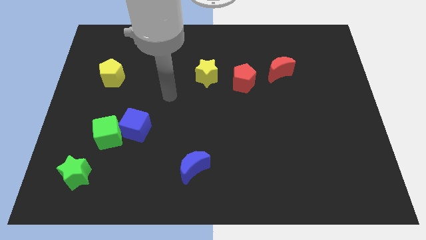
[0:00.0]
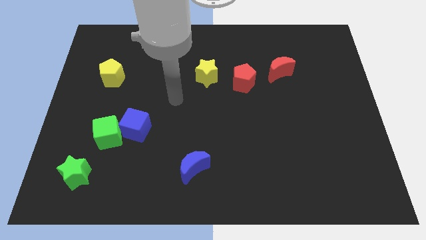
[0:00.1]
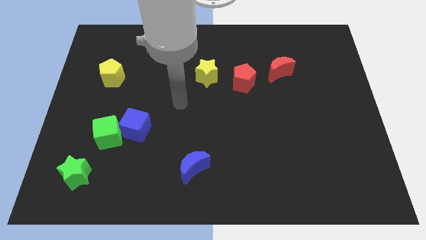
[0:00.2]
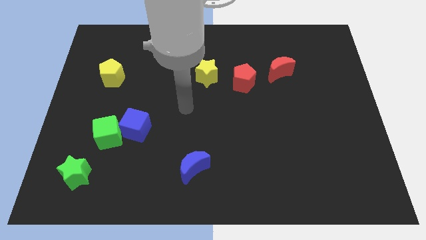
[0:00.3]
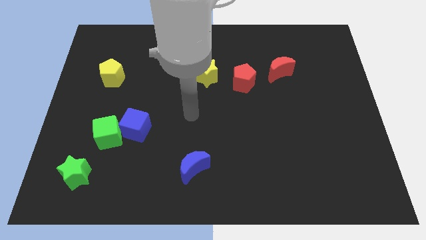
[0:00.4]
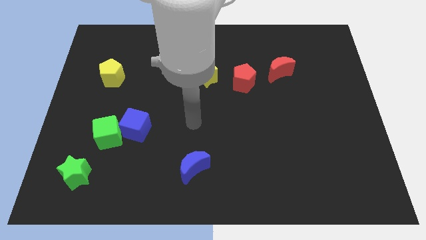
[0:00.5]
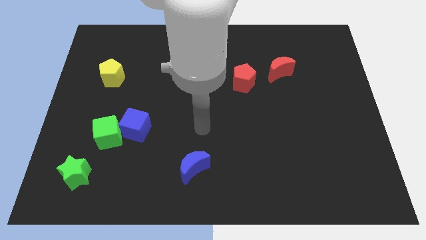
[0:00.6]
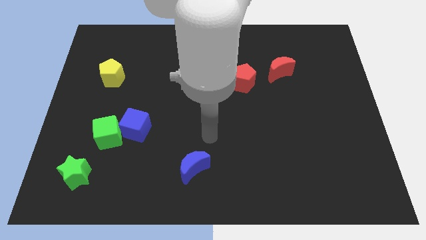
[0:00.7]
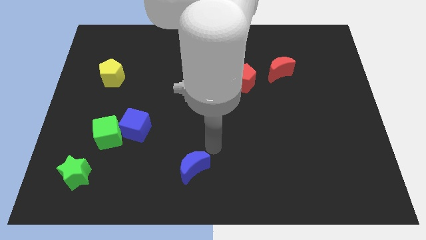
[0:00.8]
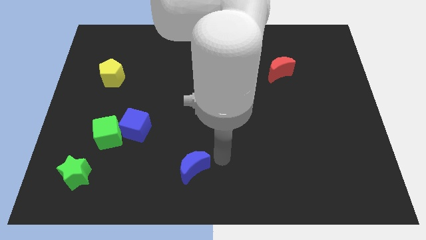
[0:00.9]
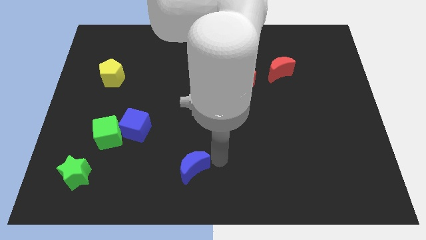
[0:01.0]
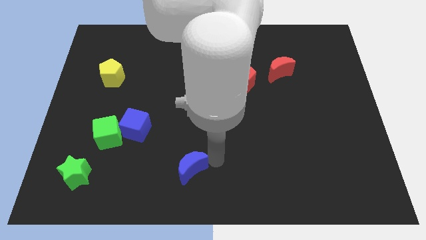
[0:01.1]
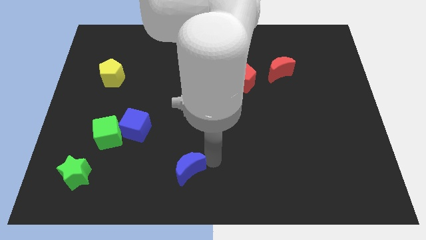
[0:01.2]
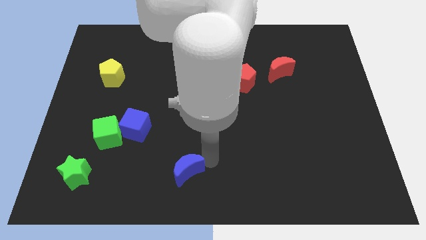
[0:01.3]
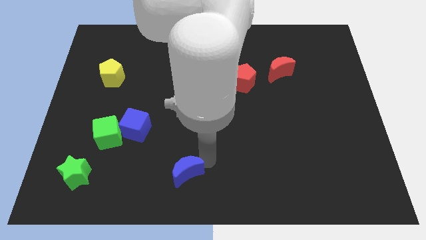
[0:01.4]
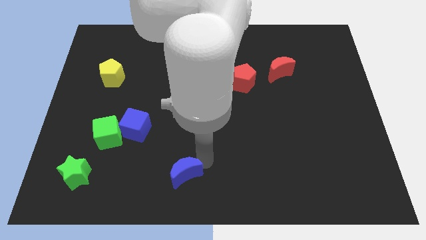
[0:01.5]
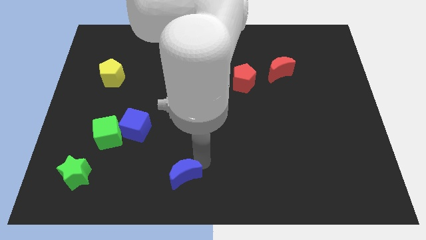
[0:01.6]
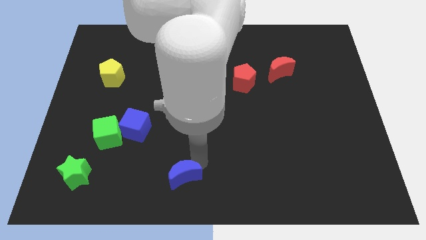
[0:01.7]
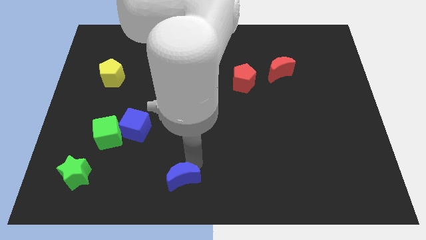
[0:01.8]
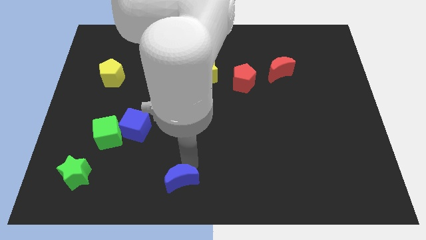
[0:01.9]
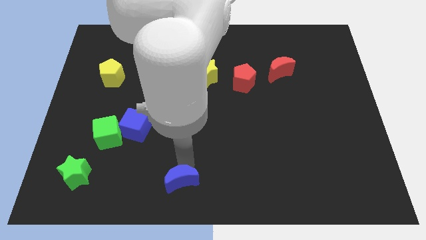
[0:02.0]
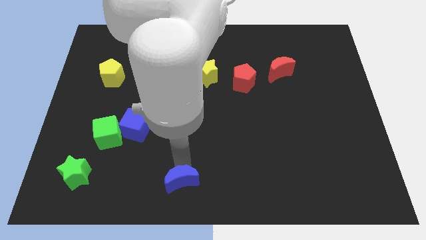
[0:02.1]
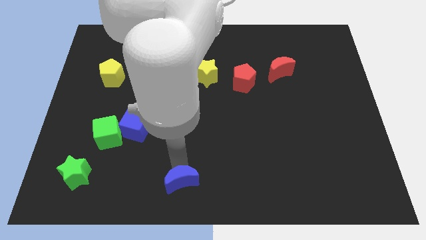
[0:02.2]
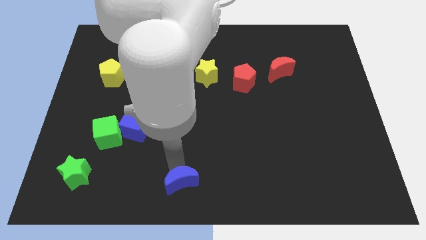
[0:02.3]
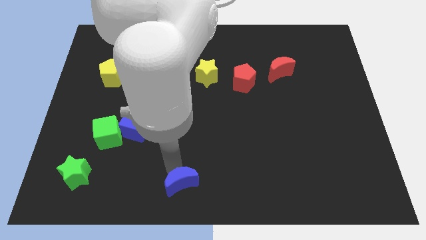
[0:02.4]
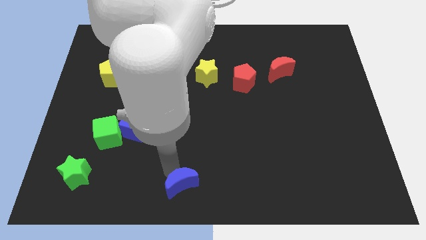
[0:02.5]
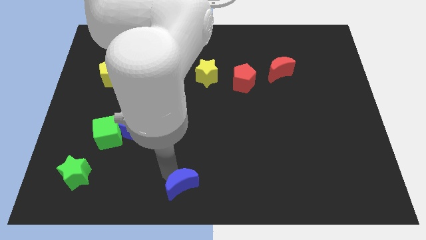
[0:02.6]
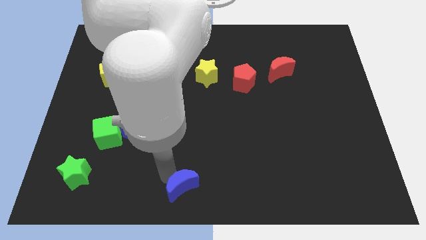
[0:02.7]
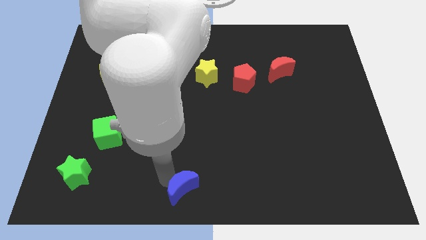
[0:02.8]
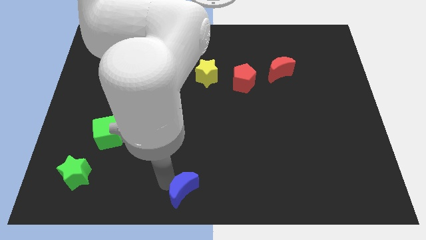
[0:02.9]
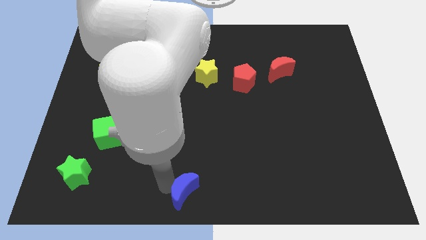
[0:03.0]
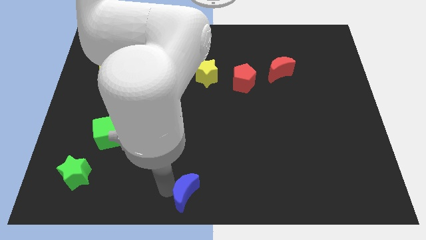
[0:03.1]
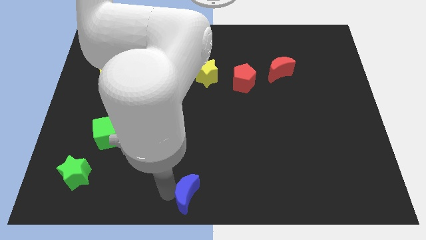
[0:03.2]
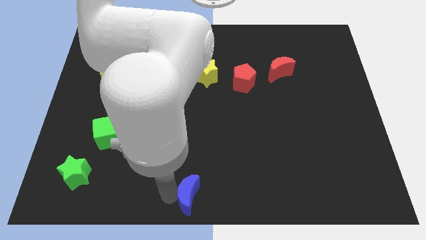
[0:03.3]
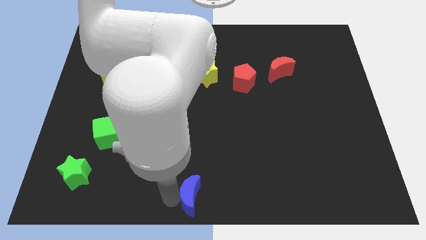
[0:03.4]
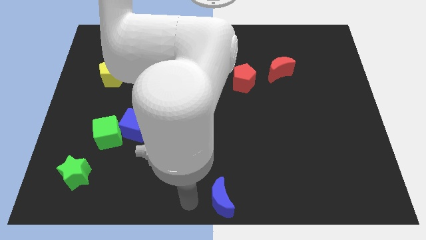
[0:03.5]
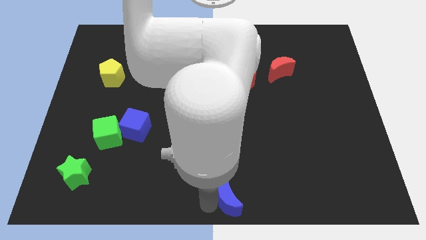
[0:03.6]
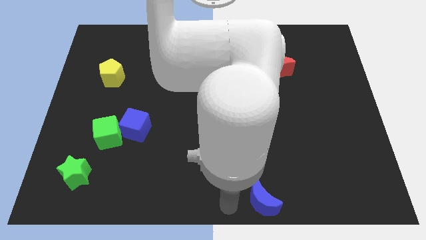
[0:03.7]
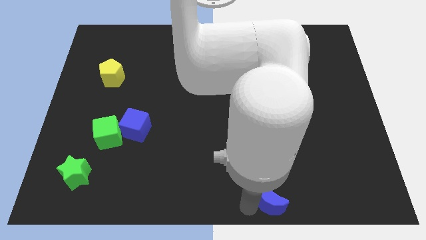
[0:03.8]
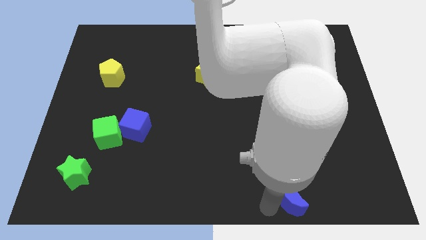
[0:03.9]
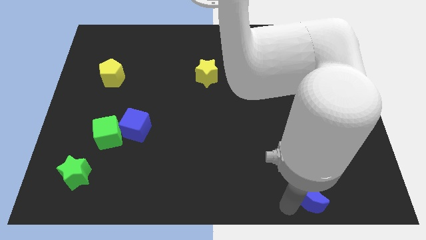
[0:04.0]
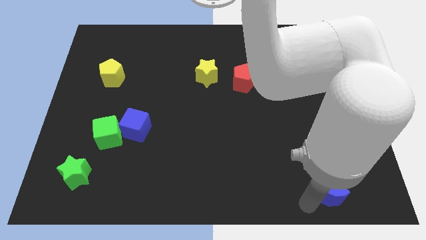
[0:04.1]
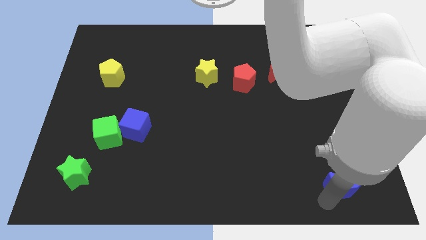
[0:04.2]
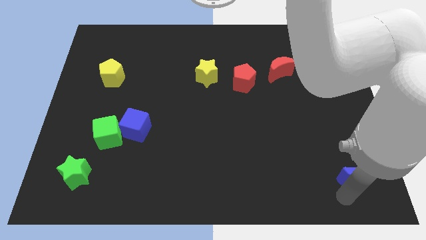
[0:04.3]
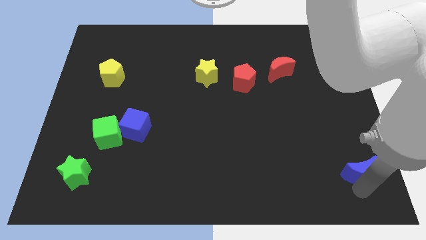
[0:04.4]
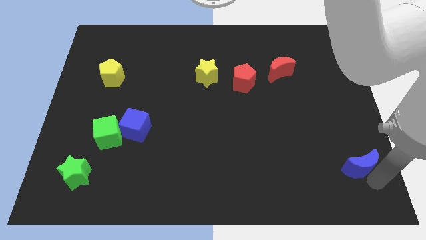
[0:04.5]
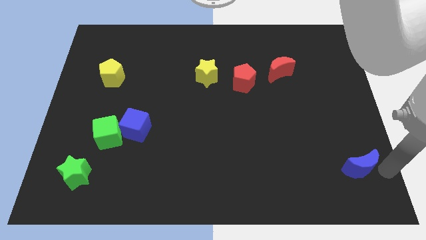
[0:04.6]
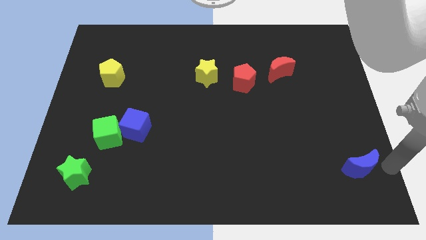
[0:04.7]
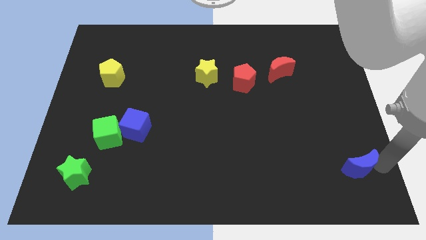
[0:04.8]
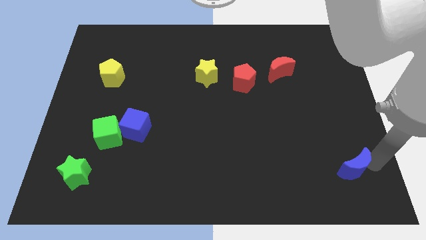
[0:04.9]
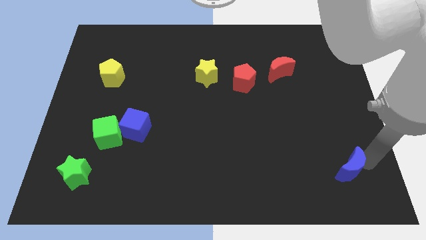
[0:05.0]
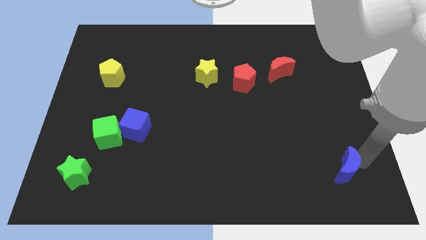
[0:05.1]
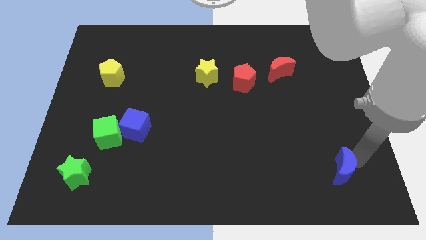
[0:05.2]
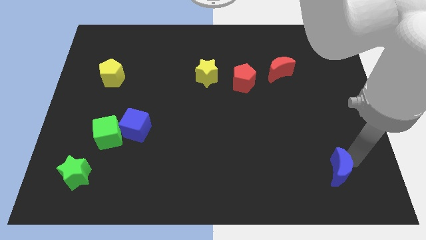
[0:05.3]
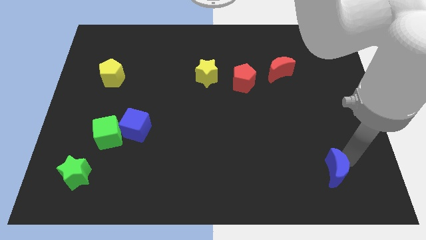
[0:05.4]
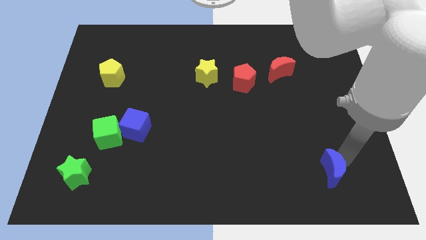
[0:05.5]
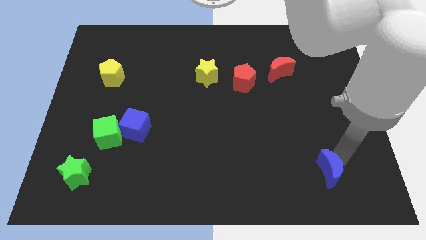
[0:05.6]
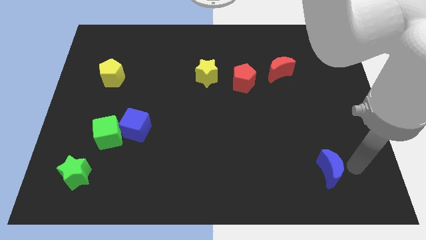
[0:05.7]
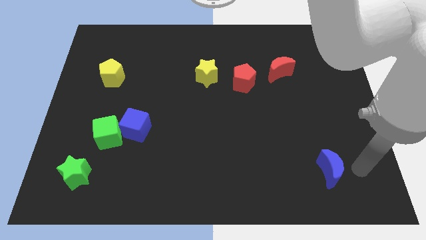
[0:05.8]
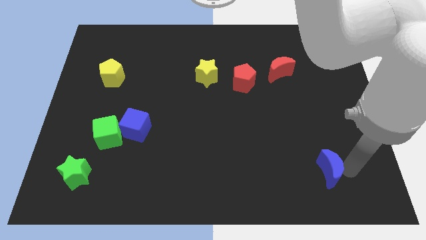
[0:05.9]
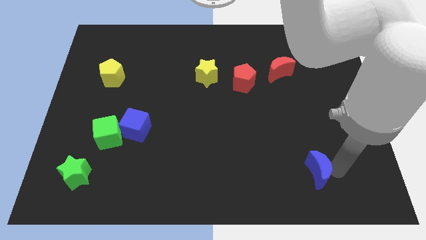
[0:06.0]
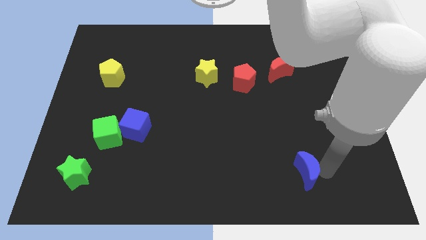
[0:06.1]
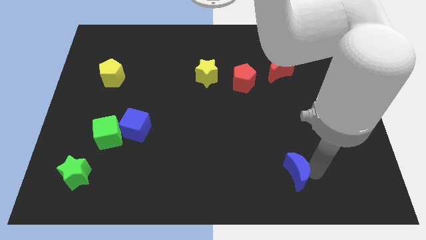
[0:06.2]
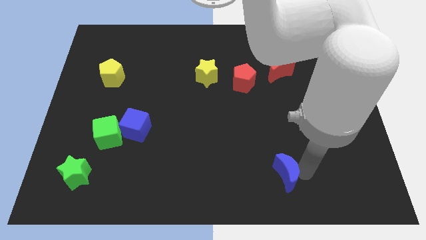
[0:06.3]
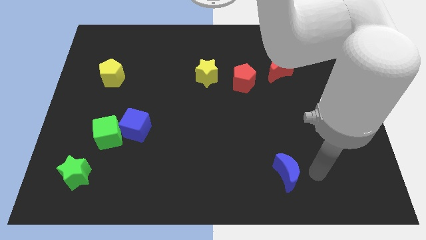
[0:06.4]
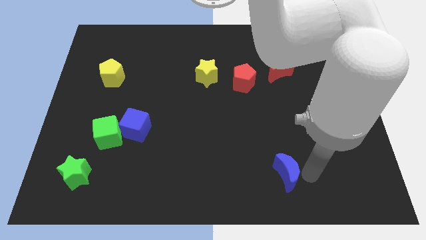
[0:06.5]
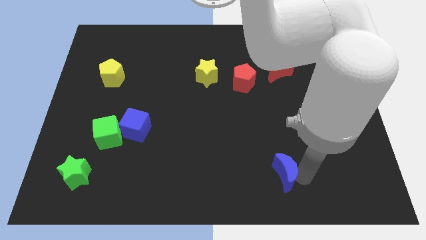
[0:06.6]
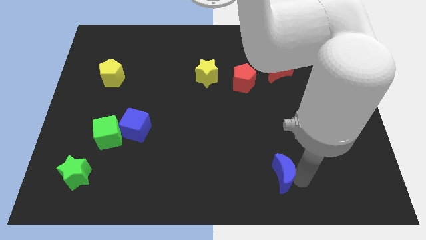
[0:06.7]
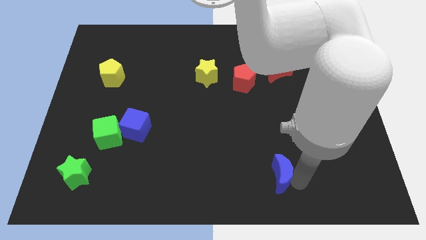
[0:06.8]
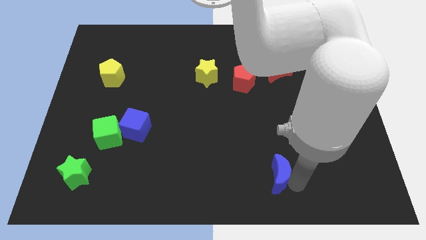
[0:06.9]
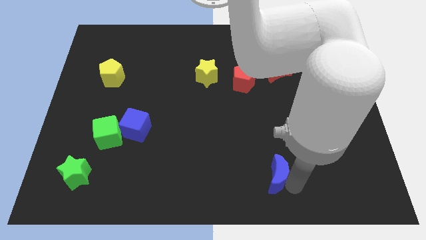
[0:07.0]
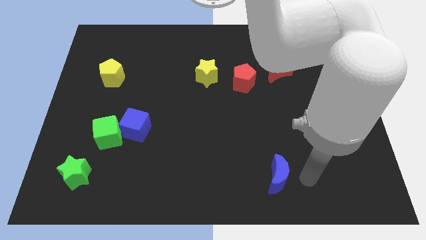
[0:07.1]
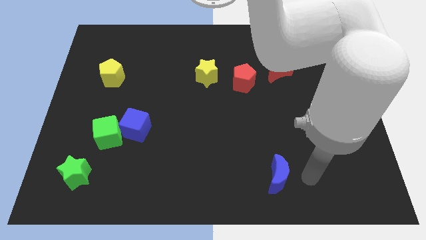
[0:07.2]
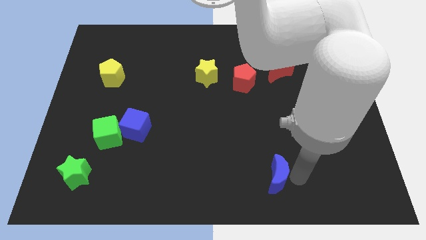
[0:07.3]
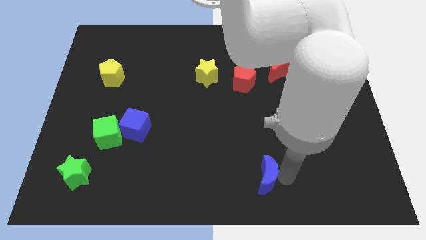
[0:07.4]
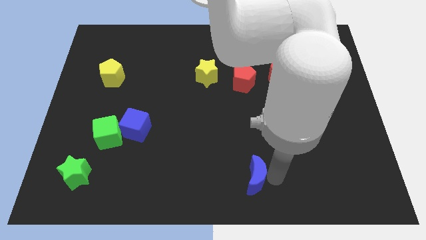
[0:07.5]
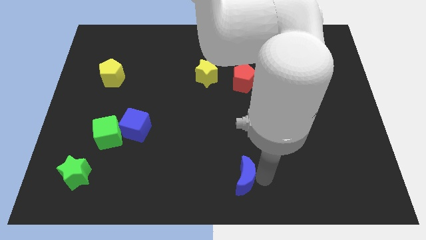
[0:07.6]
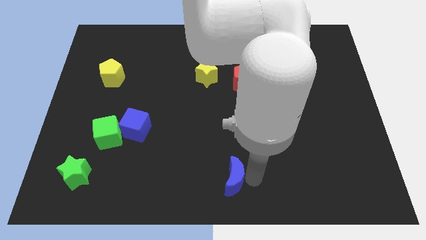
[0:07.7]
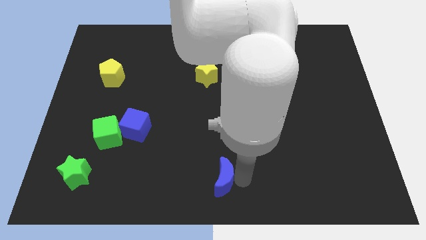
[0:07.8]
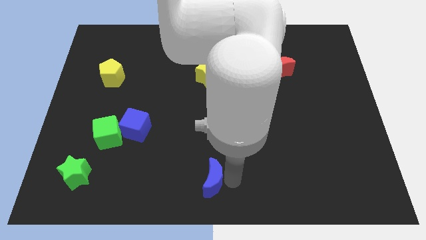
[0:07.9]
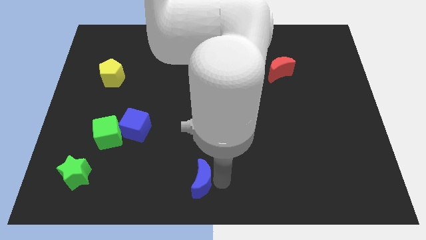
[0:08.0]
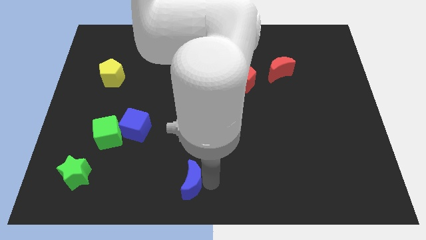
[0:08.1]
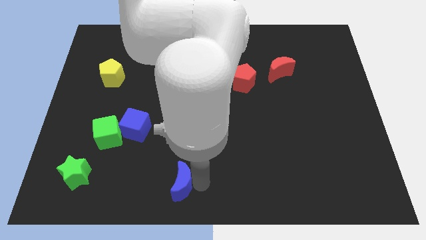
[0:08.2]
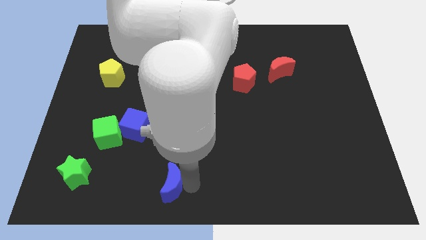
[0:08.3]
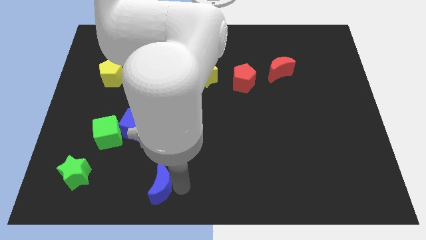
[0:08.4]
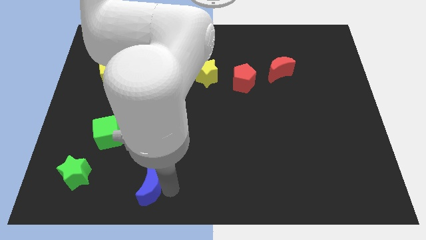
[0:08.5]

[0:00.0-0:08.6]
move the blue moon right of the green star
